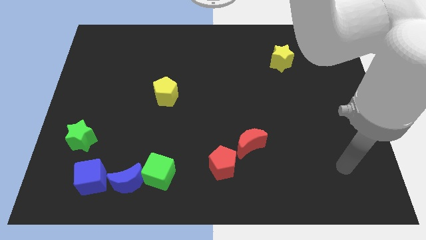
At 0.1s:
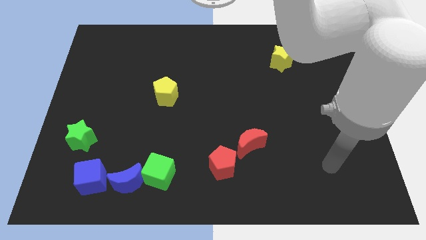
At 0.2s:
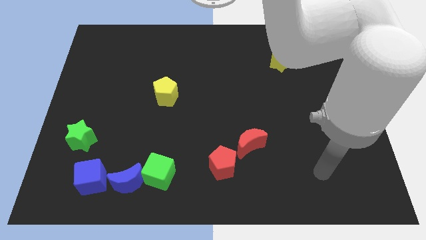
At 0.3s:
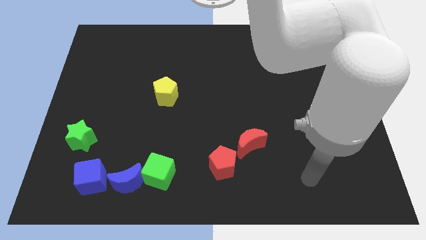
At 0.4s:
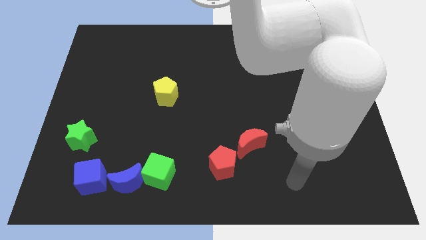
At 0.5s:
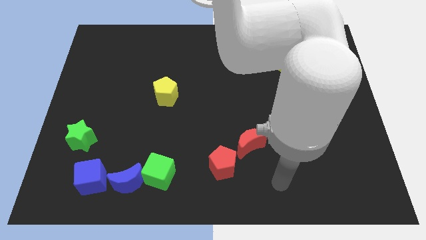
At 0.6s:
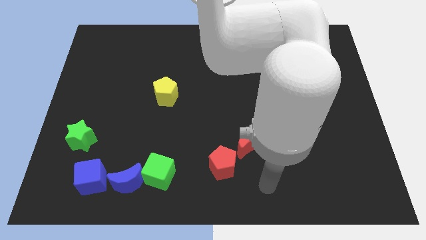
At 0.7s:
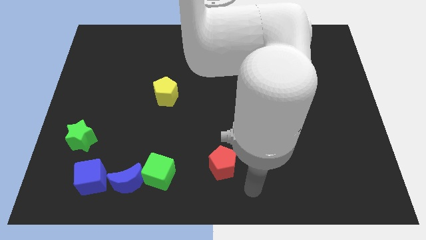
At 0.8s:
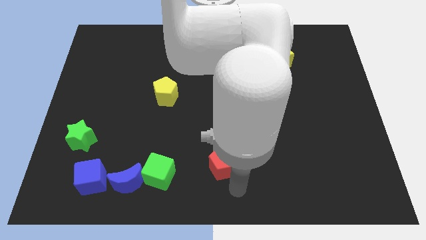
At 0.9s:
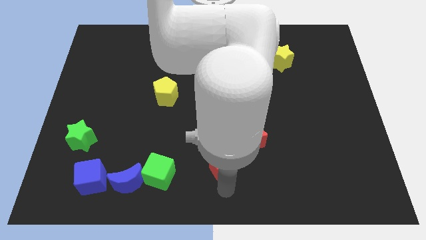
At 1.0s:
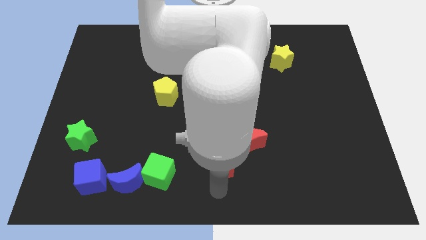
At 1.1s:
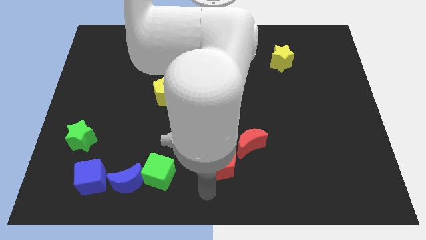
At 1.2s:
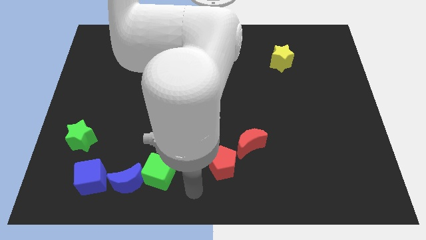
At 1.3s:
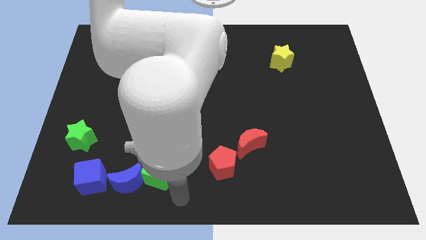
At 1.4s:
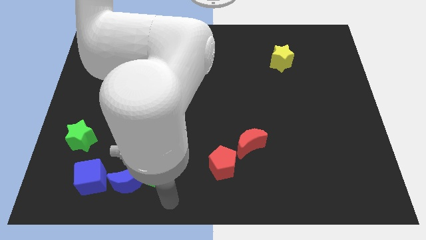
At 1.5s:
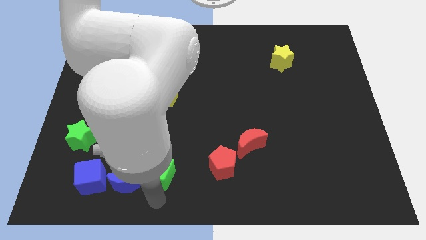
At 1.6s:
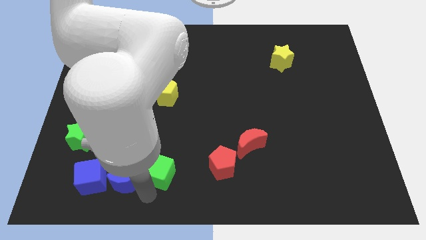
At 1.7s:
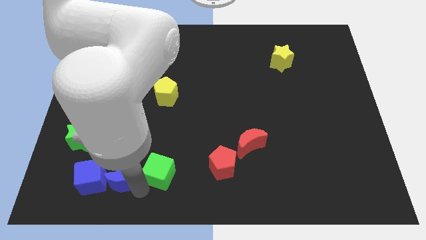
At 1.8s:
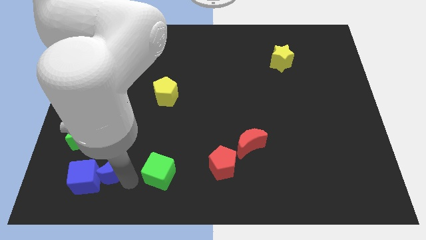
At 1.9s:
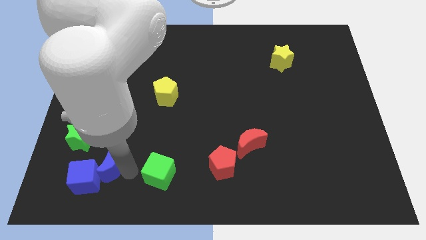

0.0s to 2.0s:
move the green cube away from the blue moon

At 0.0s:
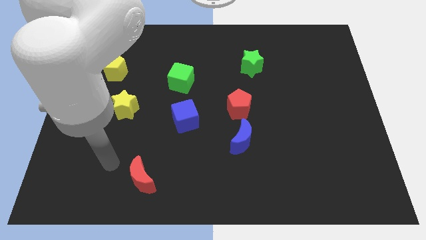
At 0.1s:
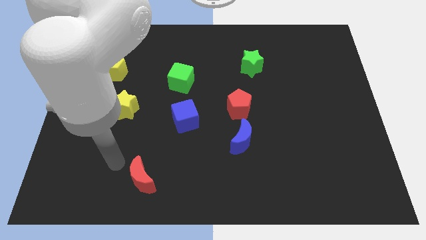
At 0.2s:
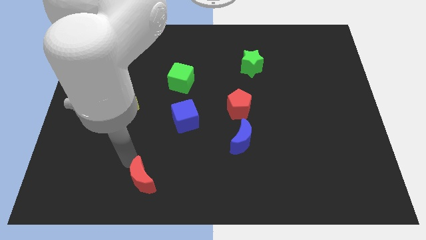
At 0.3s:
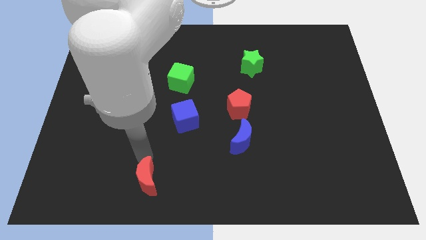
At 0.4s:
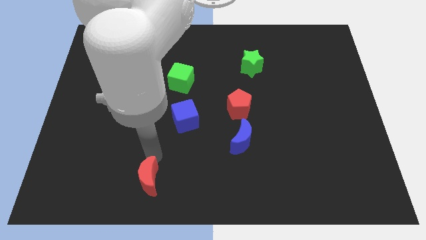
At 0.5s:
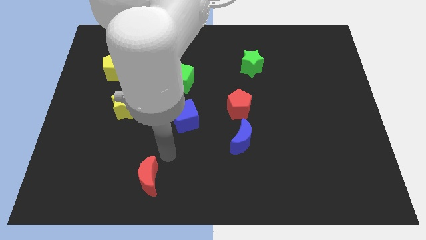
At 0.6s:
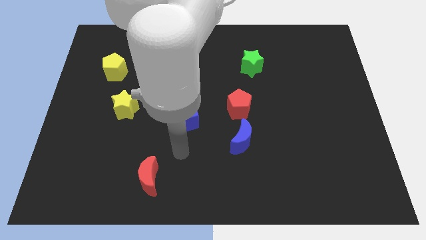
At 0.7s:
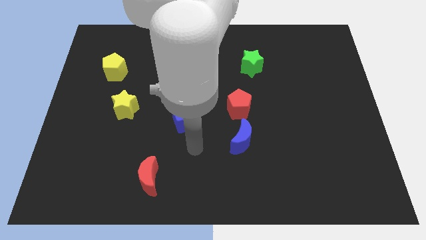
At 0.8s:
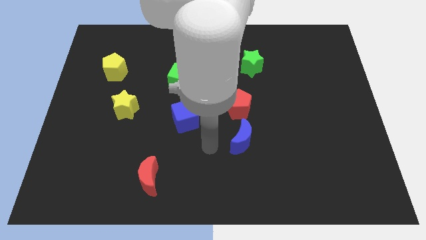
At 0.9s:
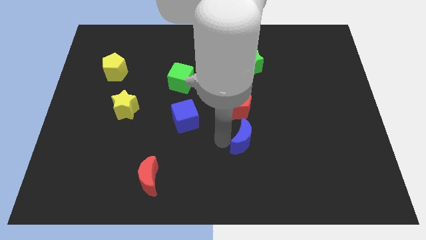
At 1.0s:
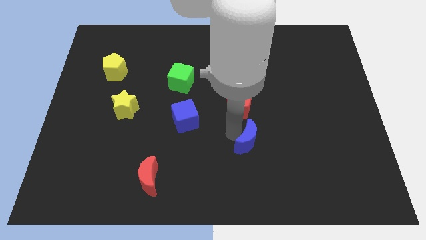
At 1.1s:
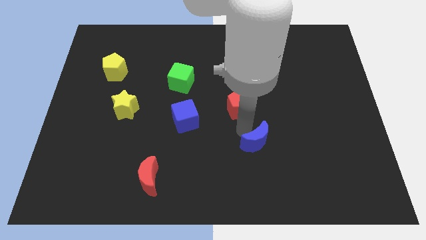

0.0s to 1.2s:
pull the red pentagon apart from the blue moon

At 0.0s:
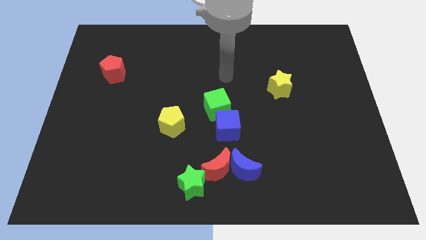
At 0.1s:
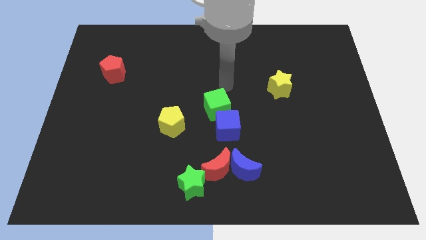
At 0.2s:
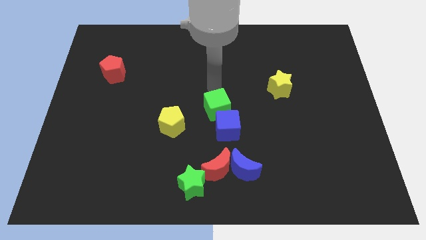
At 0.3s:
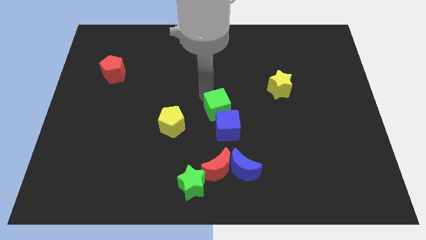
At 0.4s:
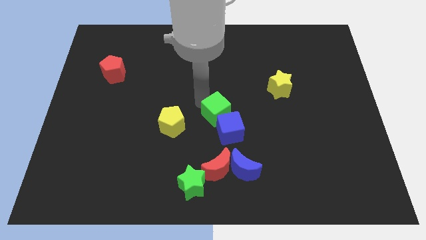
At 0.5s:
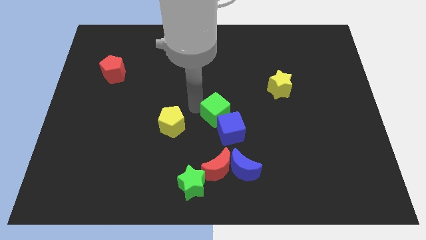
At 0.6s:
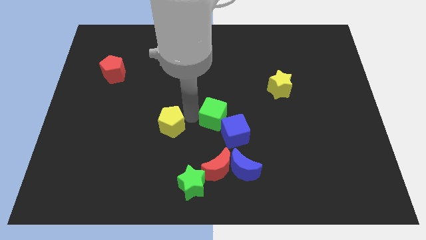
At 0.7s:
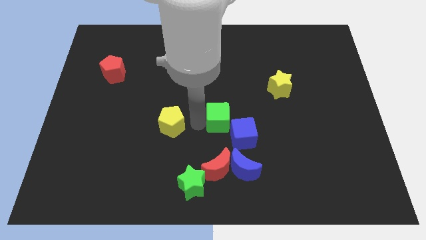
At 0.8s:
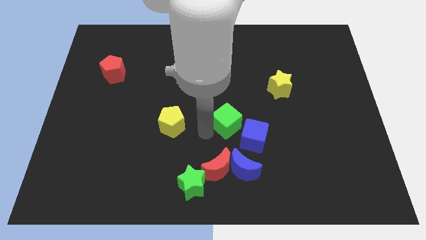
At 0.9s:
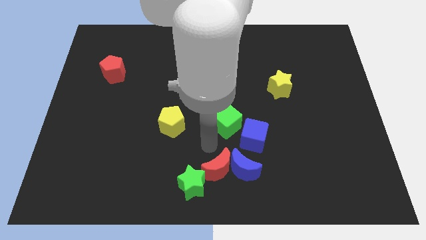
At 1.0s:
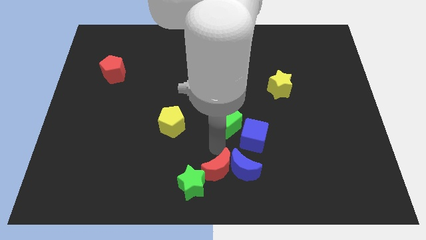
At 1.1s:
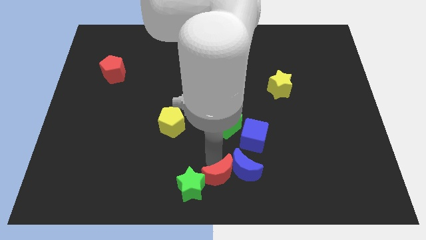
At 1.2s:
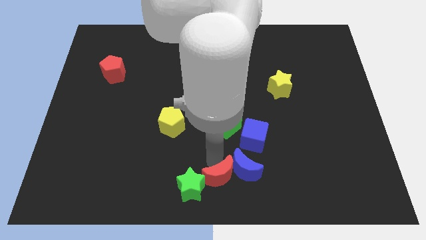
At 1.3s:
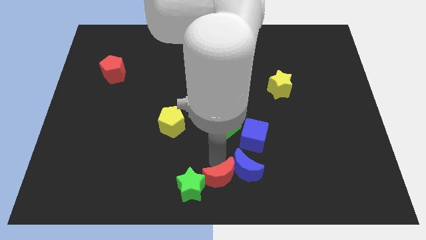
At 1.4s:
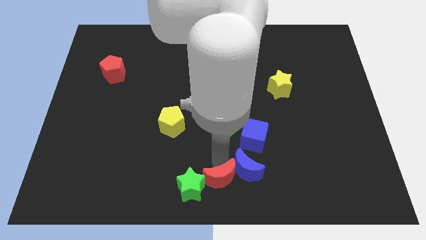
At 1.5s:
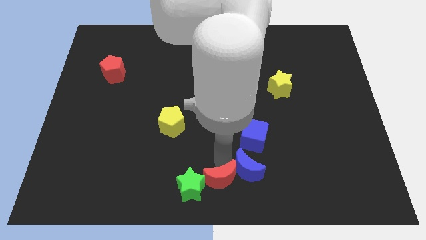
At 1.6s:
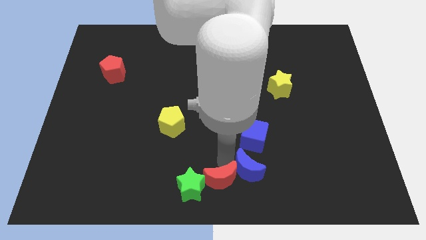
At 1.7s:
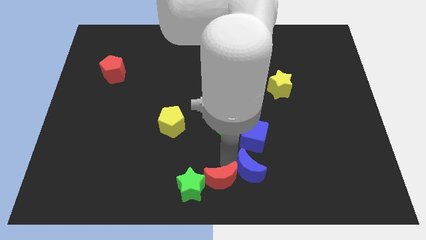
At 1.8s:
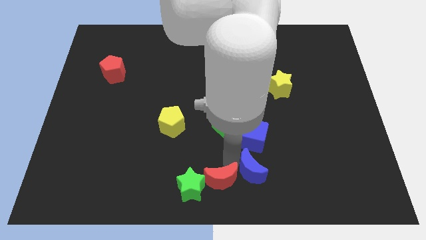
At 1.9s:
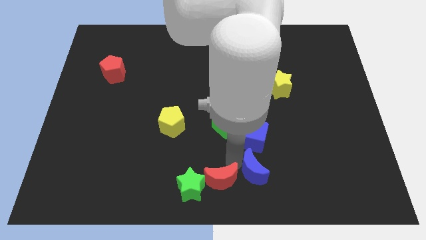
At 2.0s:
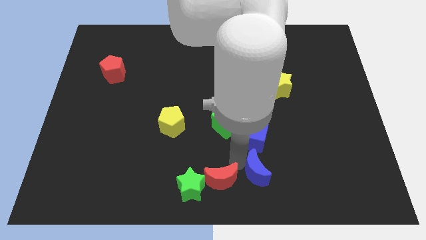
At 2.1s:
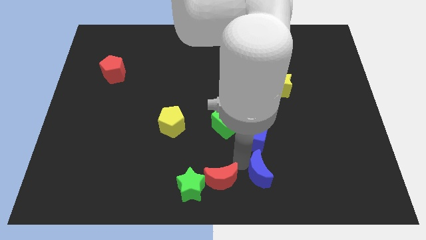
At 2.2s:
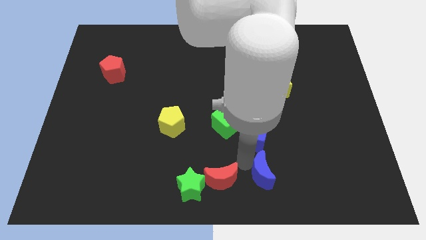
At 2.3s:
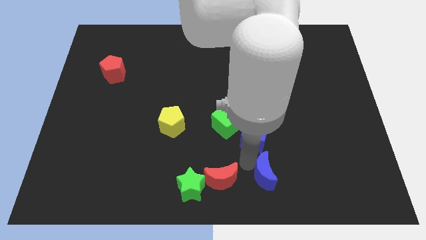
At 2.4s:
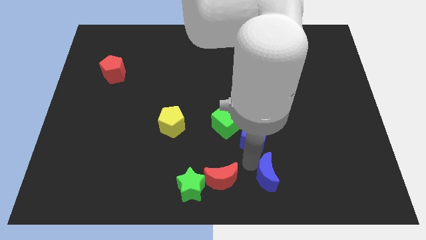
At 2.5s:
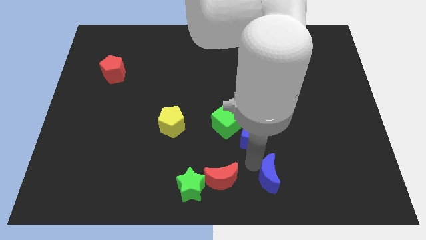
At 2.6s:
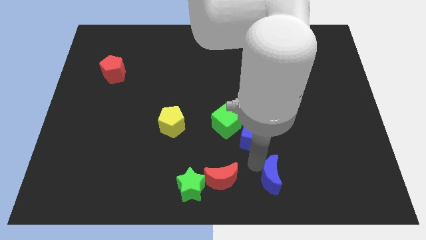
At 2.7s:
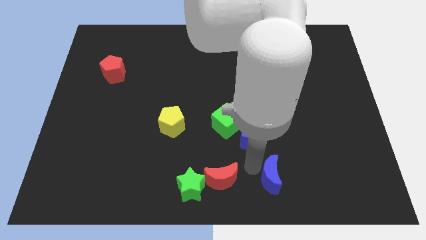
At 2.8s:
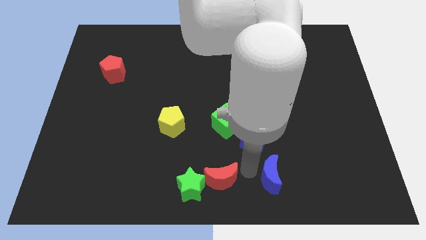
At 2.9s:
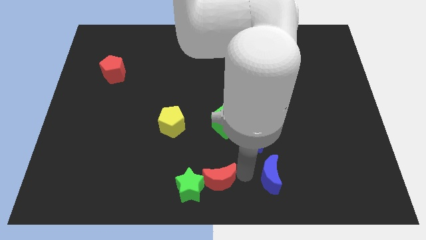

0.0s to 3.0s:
separate the blue moon from the red moon

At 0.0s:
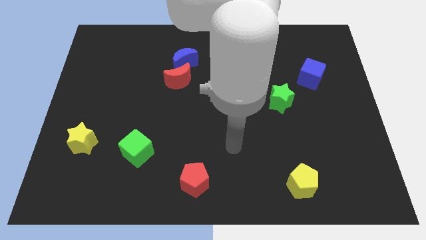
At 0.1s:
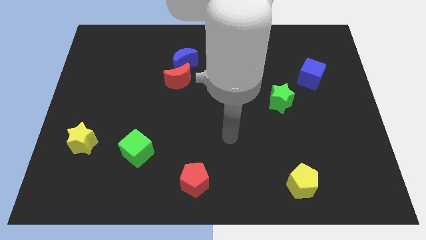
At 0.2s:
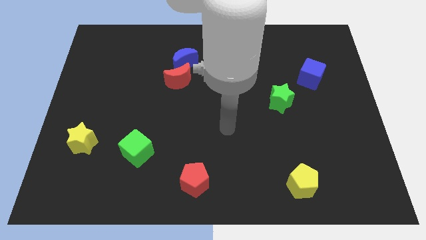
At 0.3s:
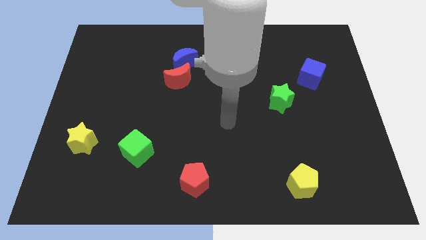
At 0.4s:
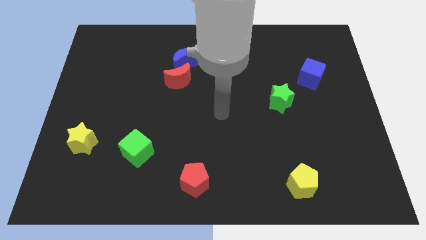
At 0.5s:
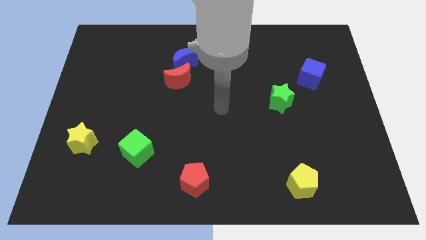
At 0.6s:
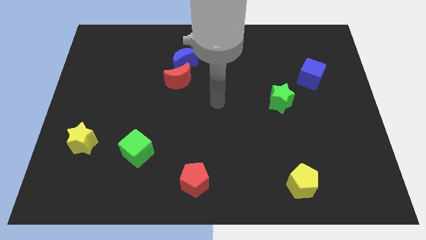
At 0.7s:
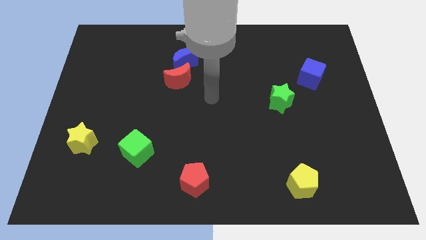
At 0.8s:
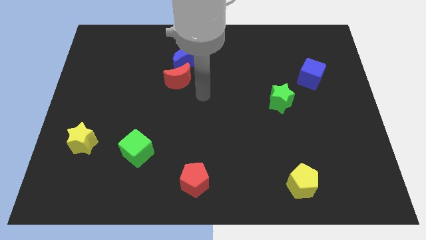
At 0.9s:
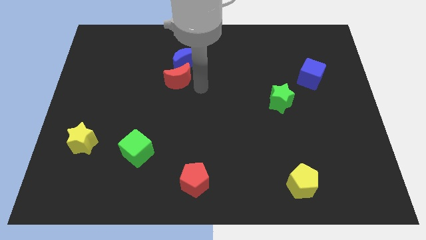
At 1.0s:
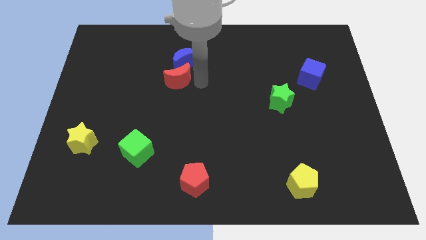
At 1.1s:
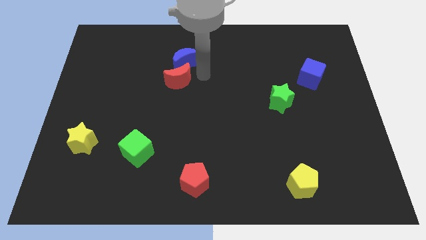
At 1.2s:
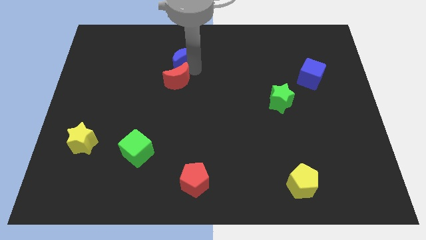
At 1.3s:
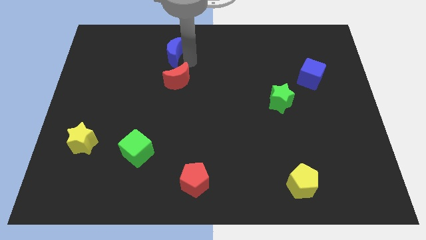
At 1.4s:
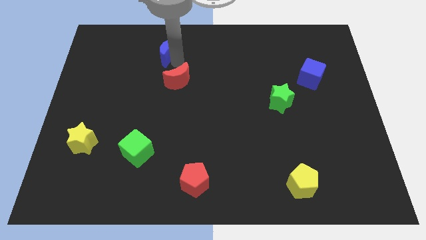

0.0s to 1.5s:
pull the red moon apart from the blue moon

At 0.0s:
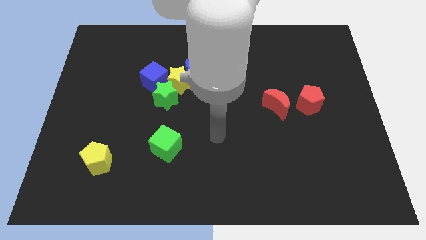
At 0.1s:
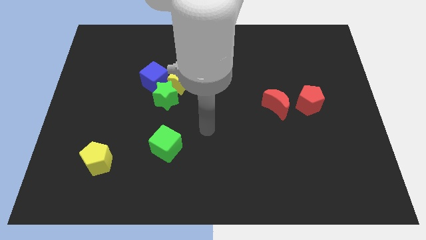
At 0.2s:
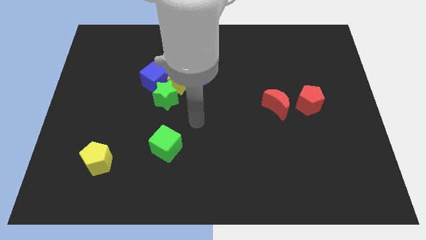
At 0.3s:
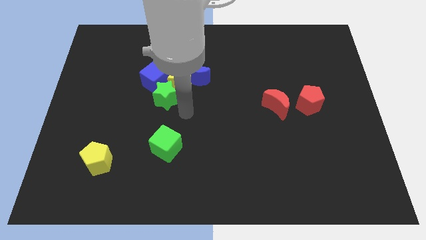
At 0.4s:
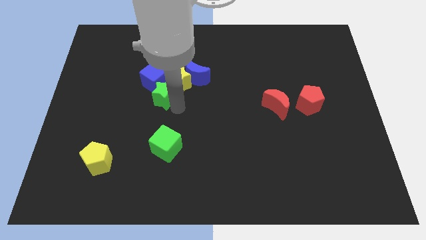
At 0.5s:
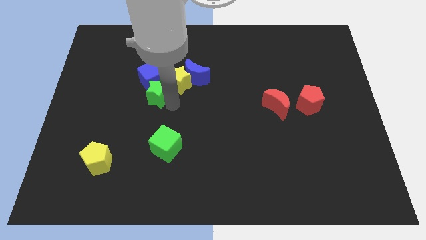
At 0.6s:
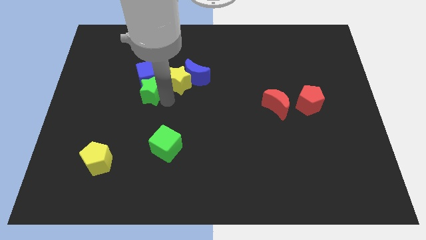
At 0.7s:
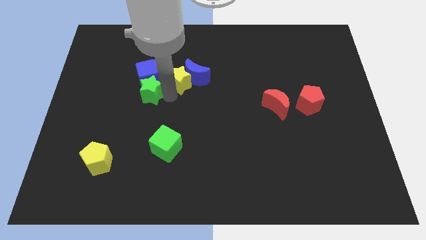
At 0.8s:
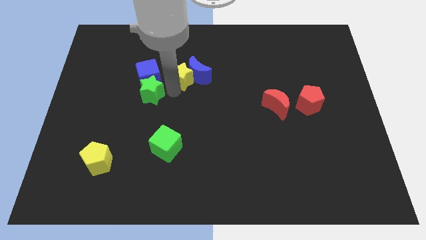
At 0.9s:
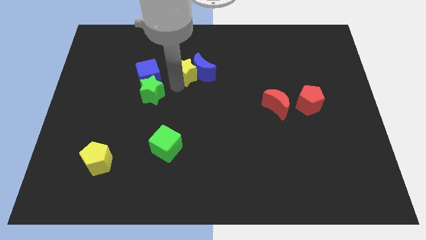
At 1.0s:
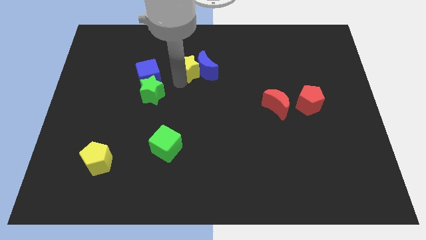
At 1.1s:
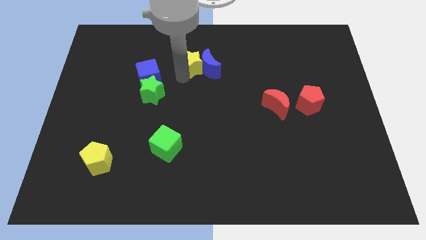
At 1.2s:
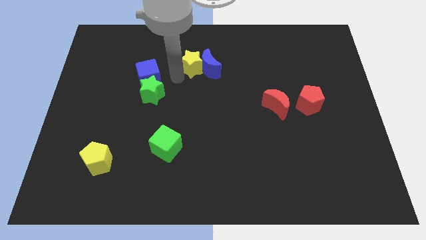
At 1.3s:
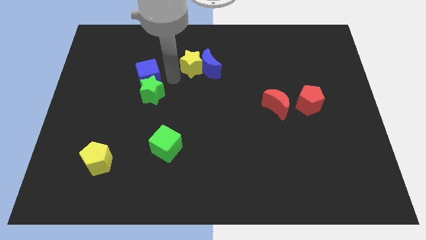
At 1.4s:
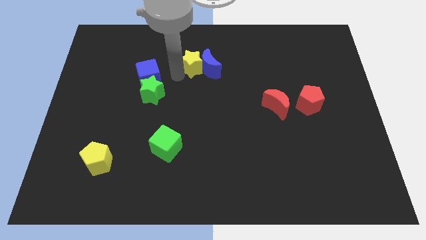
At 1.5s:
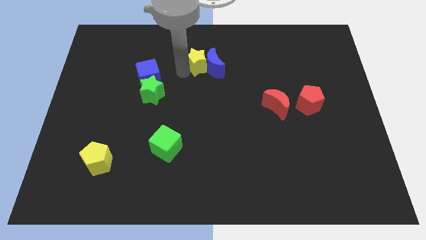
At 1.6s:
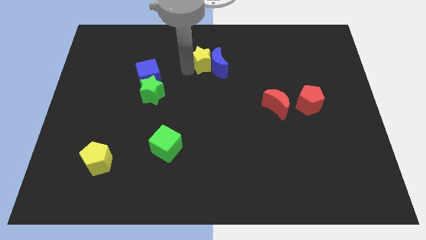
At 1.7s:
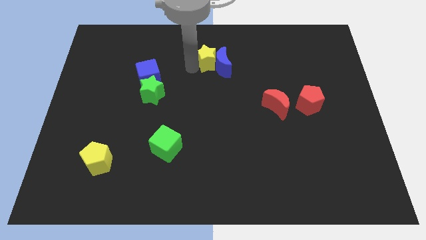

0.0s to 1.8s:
pull the yellow star apart from the clump

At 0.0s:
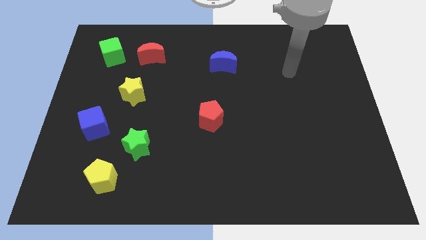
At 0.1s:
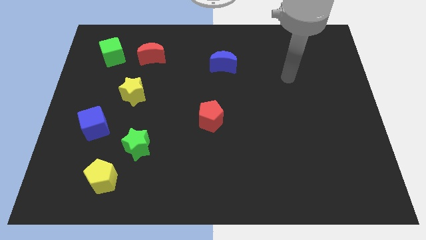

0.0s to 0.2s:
pull the green star apart from the yellow pentagon
